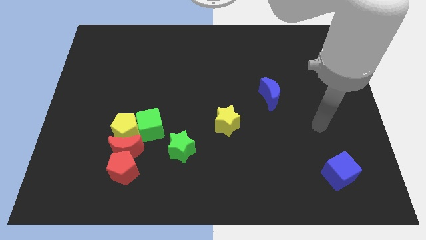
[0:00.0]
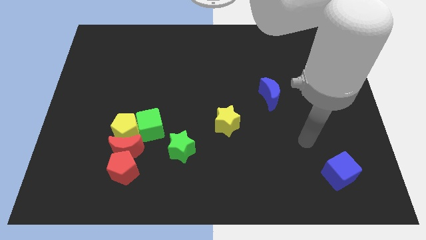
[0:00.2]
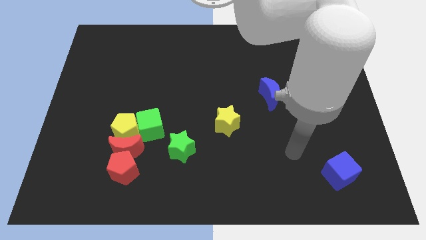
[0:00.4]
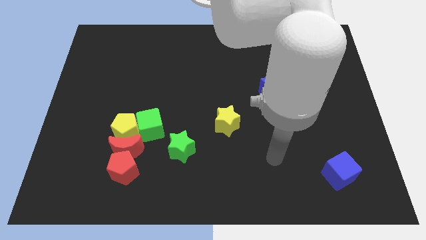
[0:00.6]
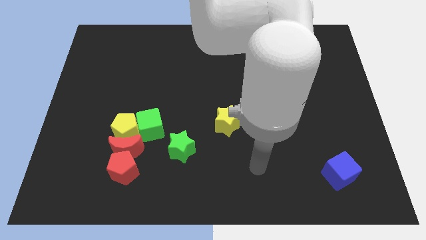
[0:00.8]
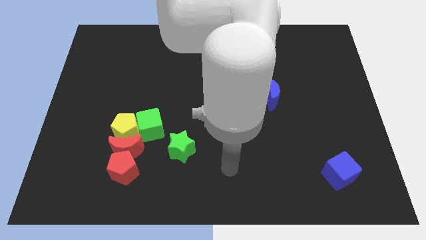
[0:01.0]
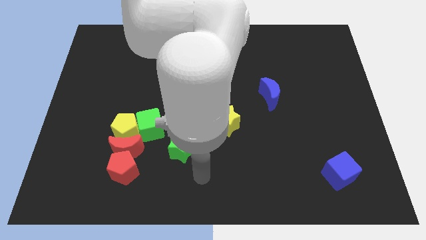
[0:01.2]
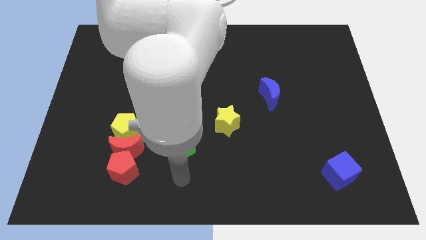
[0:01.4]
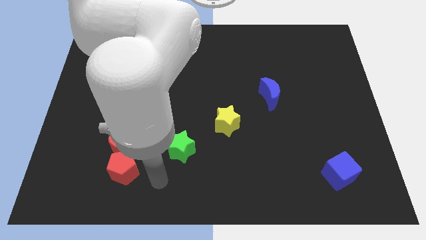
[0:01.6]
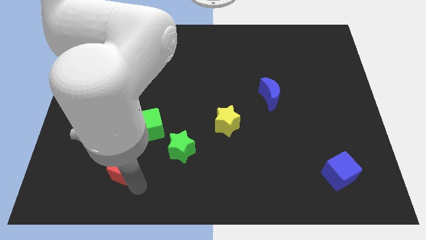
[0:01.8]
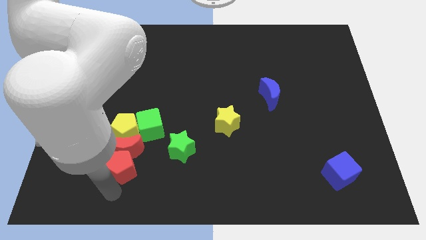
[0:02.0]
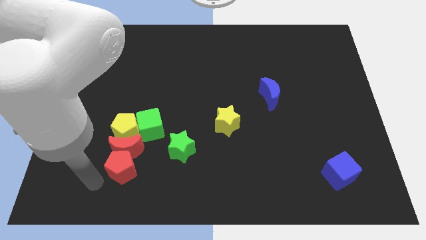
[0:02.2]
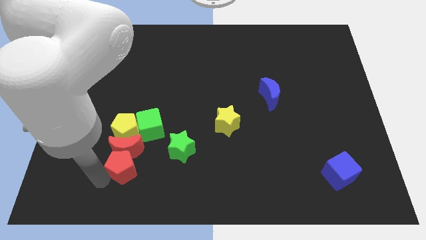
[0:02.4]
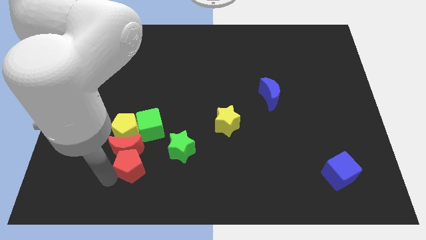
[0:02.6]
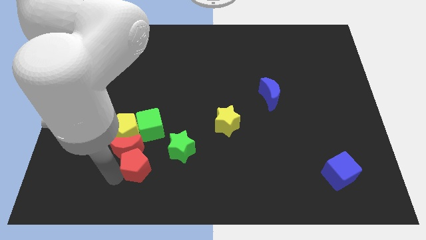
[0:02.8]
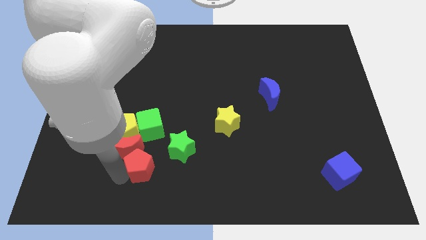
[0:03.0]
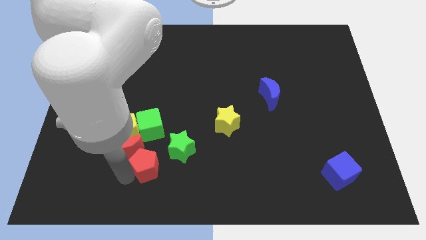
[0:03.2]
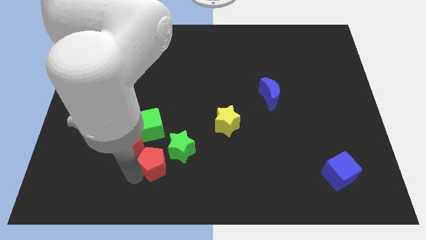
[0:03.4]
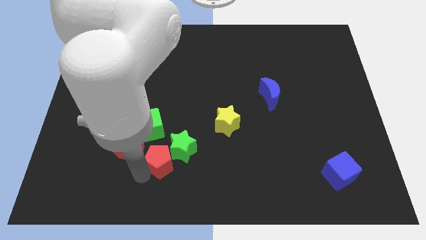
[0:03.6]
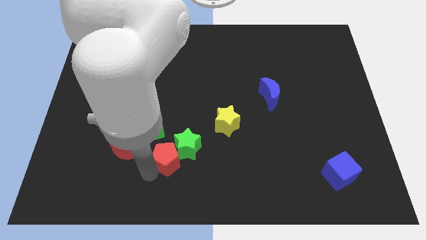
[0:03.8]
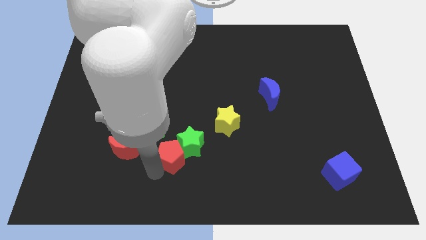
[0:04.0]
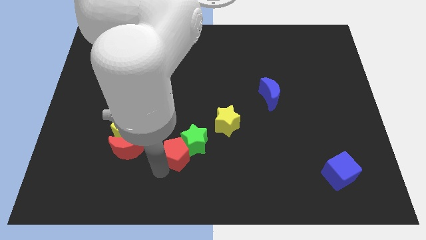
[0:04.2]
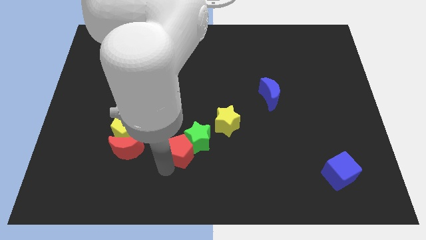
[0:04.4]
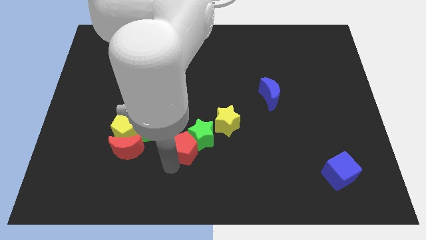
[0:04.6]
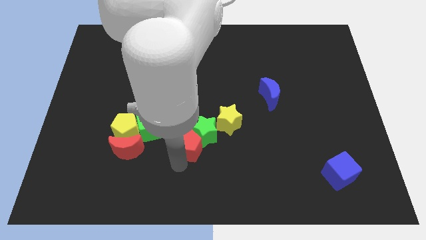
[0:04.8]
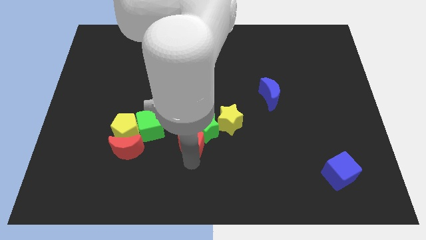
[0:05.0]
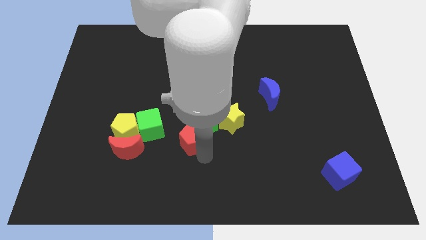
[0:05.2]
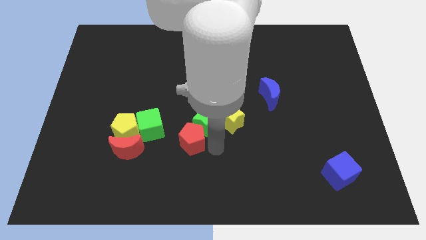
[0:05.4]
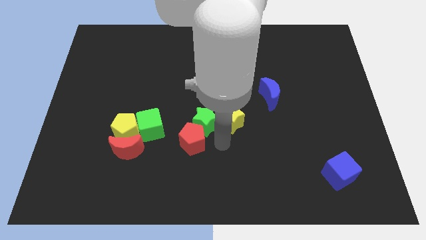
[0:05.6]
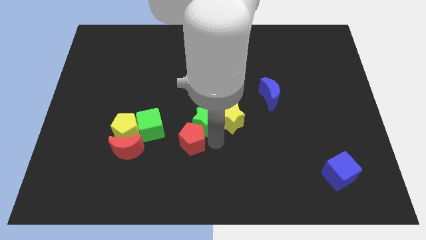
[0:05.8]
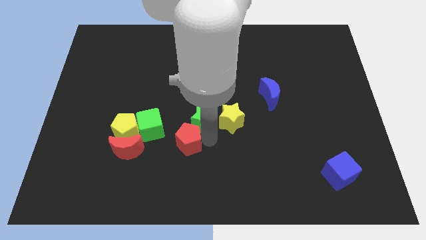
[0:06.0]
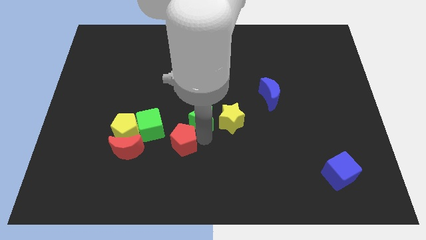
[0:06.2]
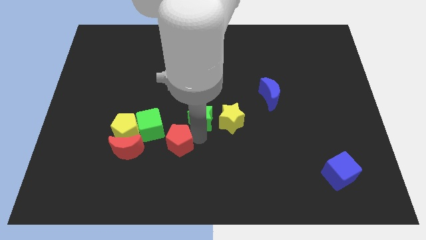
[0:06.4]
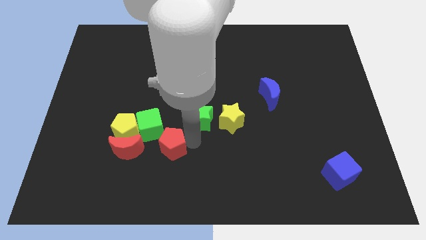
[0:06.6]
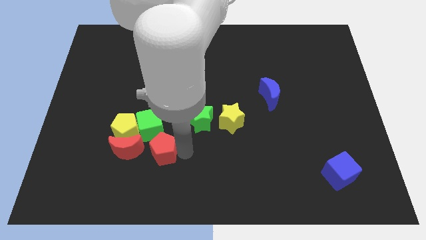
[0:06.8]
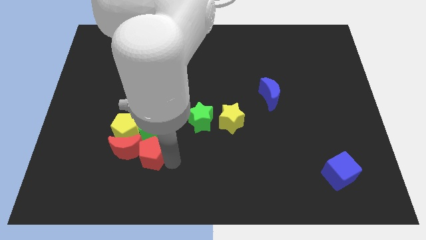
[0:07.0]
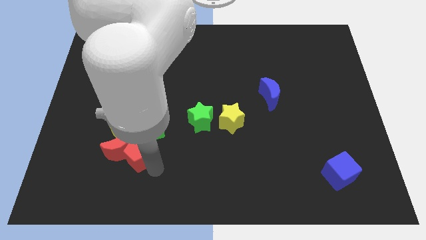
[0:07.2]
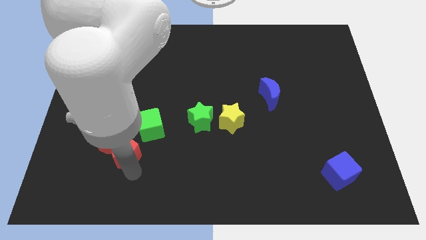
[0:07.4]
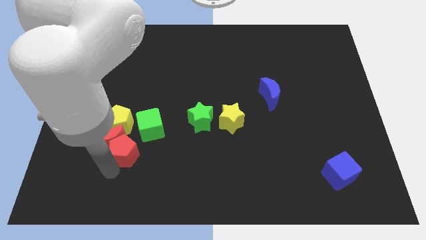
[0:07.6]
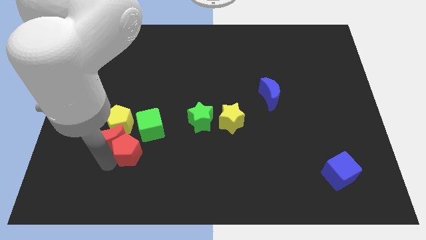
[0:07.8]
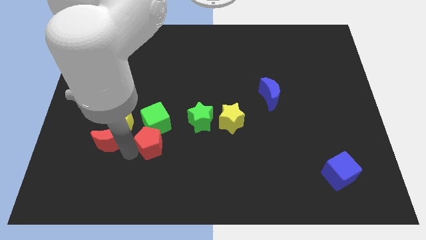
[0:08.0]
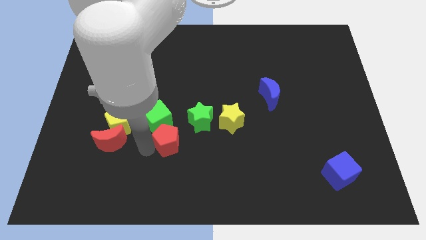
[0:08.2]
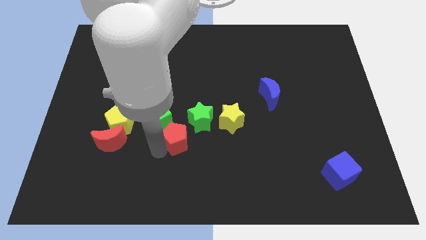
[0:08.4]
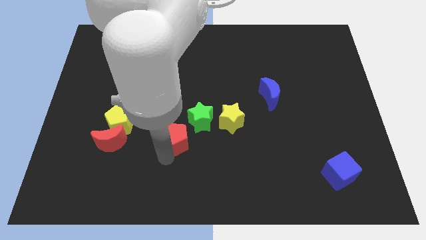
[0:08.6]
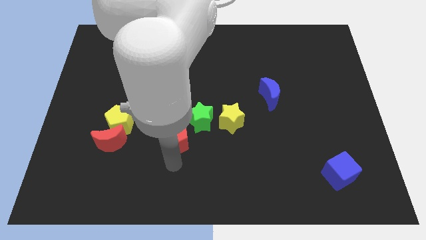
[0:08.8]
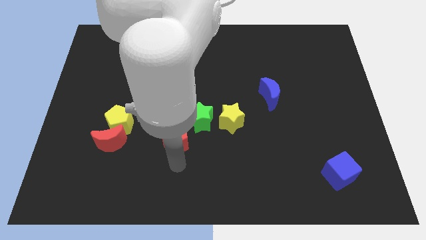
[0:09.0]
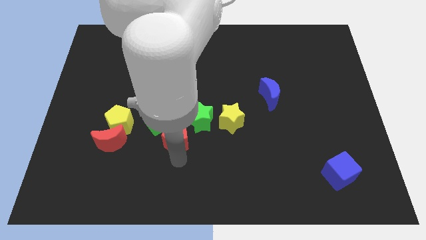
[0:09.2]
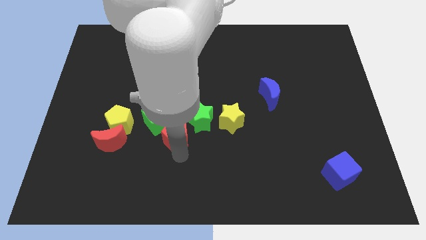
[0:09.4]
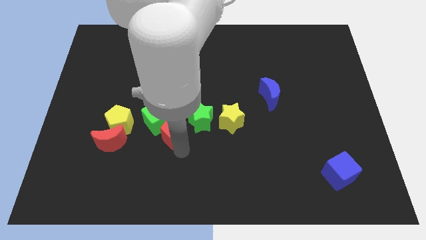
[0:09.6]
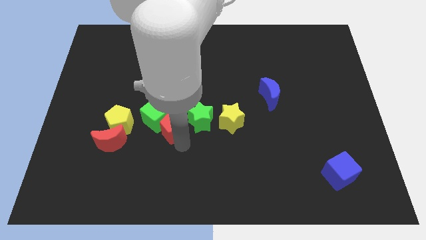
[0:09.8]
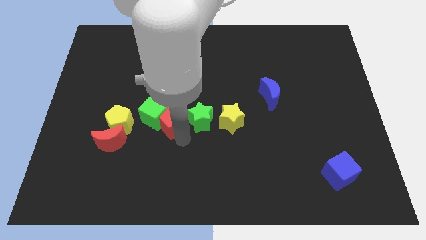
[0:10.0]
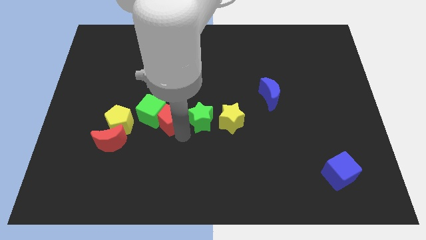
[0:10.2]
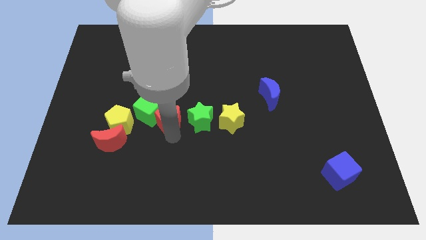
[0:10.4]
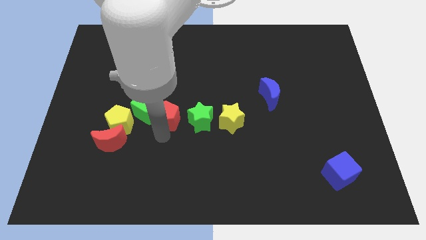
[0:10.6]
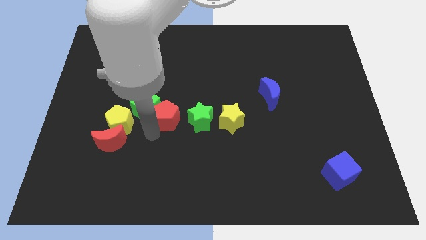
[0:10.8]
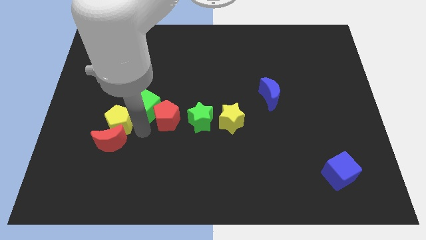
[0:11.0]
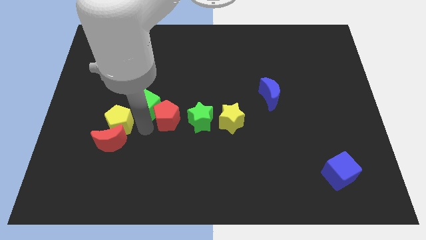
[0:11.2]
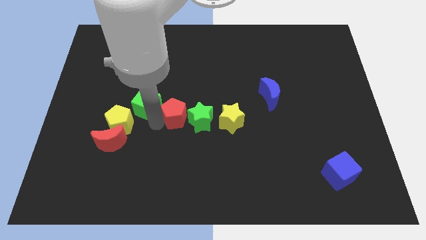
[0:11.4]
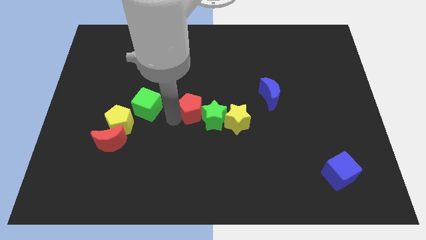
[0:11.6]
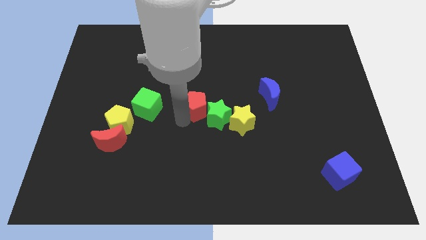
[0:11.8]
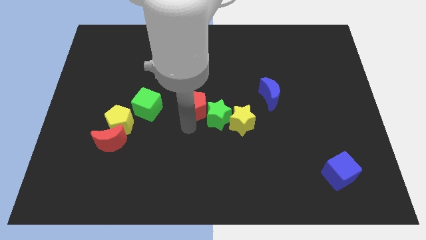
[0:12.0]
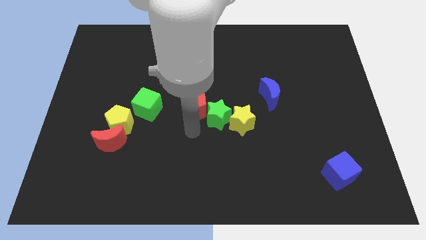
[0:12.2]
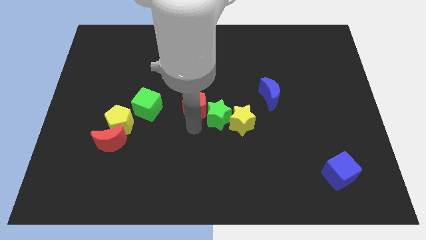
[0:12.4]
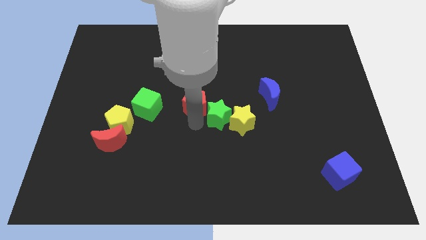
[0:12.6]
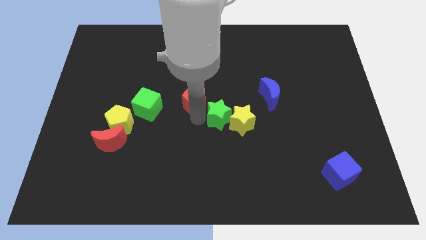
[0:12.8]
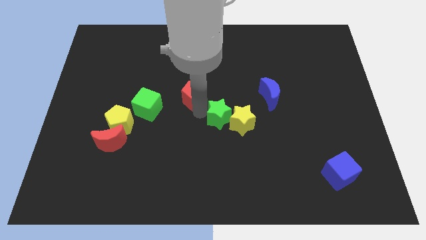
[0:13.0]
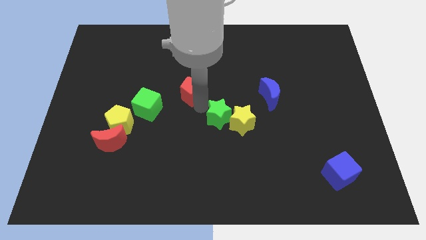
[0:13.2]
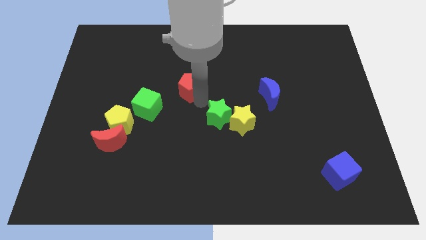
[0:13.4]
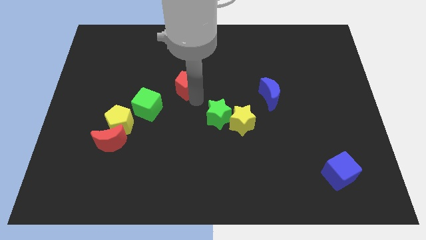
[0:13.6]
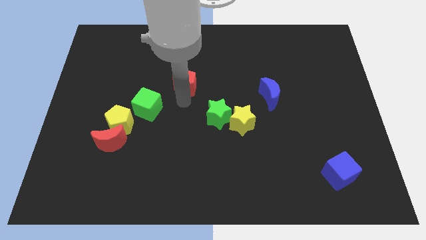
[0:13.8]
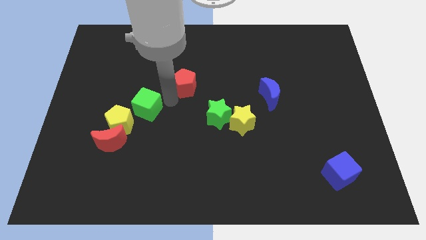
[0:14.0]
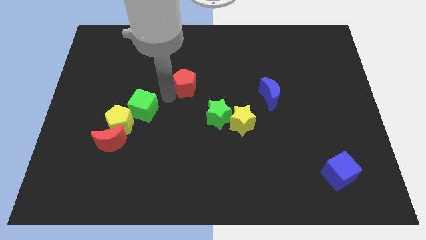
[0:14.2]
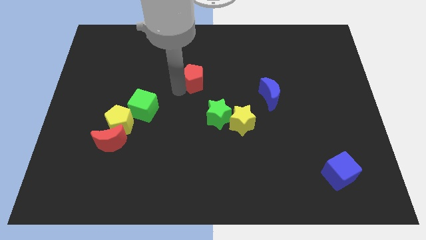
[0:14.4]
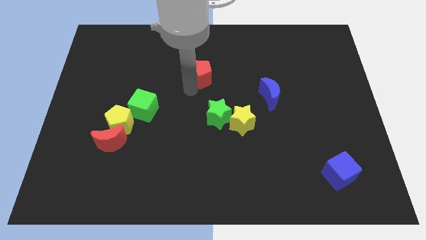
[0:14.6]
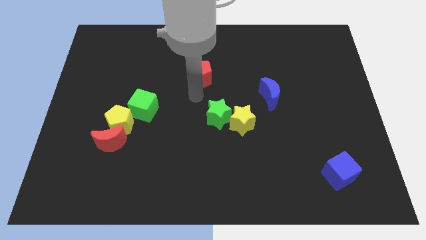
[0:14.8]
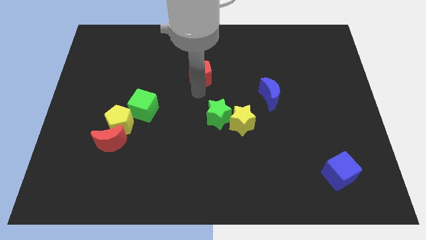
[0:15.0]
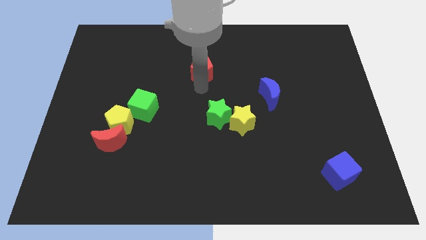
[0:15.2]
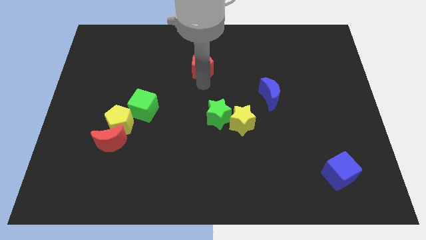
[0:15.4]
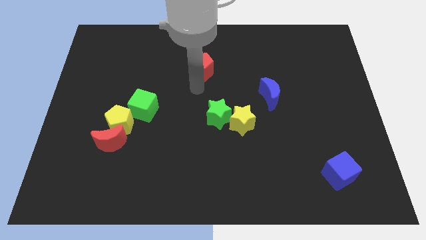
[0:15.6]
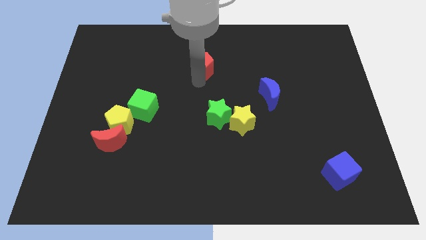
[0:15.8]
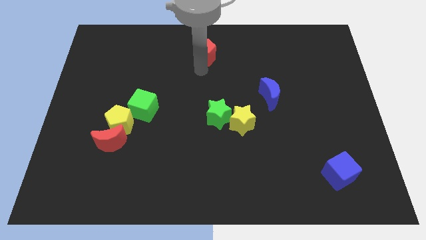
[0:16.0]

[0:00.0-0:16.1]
move the red pentagon to the top
